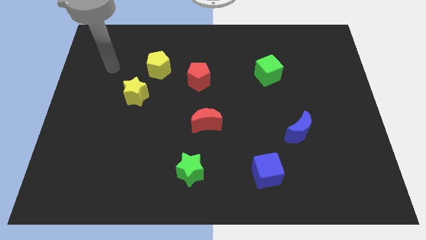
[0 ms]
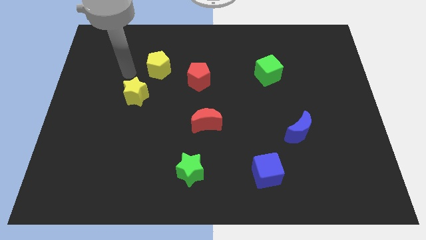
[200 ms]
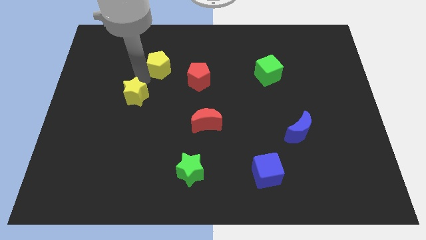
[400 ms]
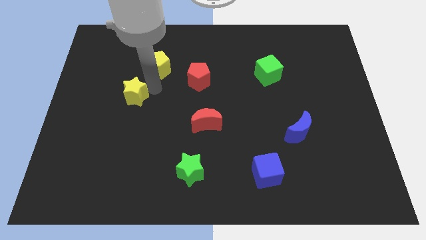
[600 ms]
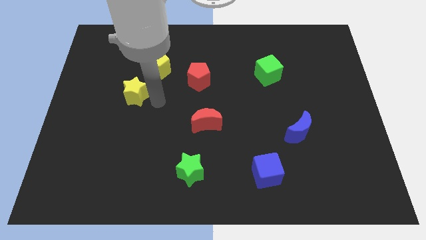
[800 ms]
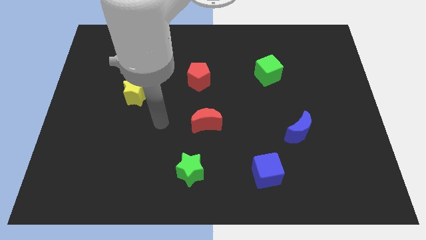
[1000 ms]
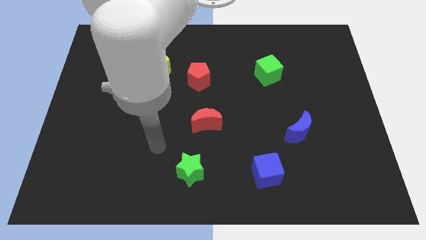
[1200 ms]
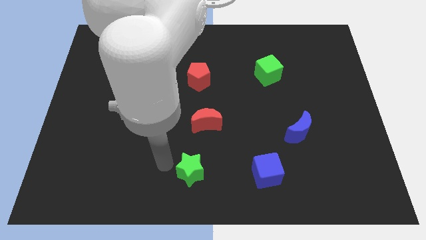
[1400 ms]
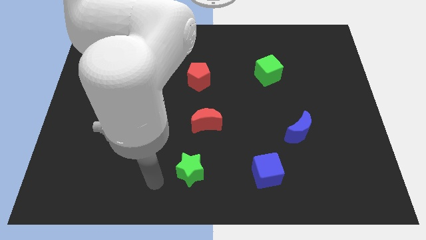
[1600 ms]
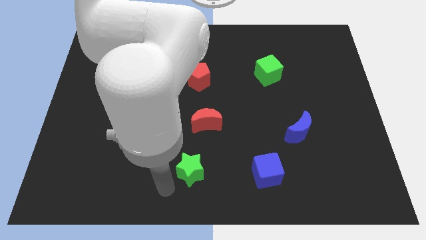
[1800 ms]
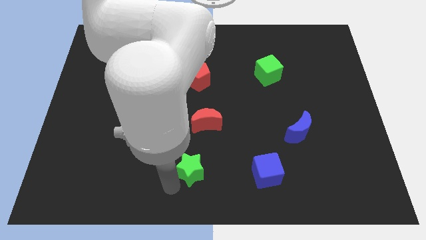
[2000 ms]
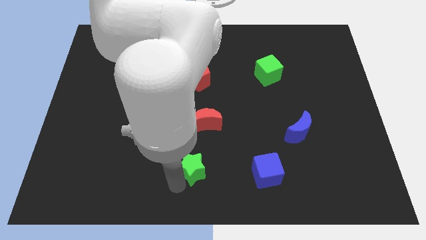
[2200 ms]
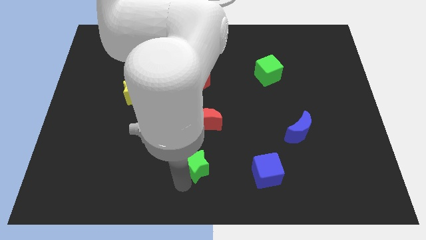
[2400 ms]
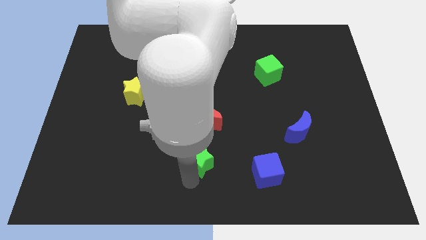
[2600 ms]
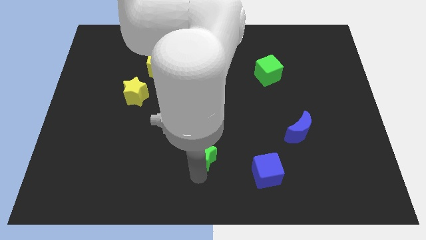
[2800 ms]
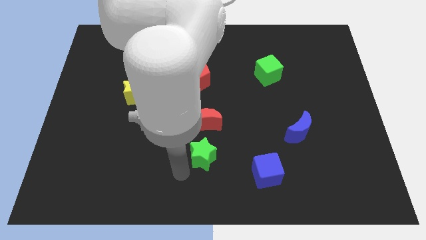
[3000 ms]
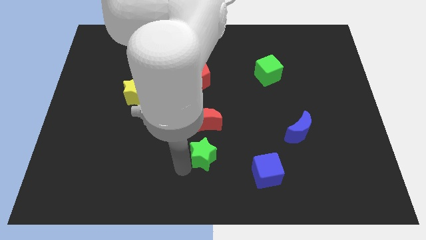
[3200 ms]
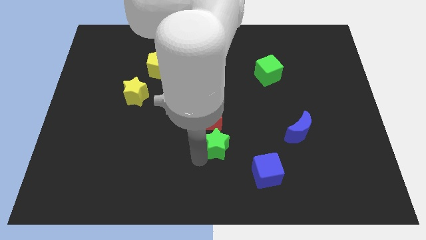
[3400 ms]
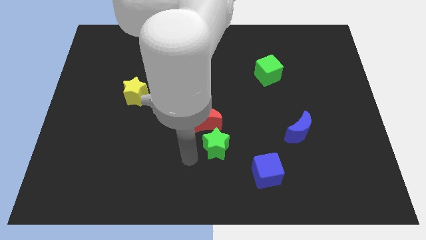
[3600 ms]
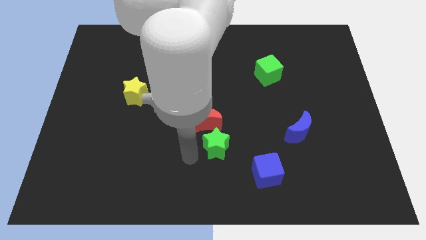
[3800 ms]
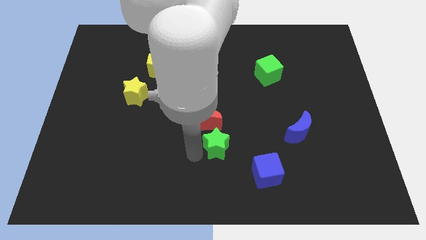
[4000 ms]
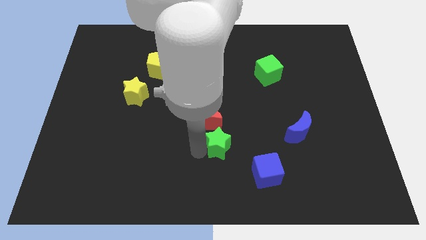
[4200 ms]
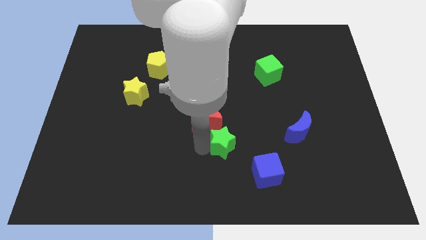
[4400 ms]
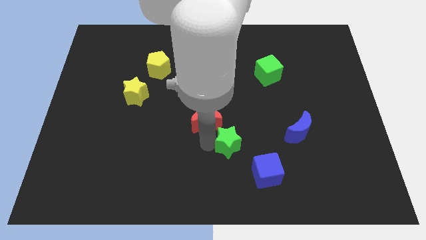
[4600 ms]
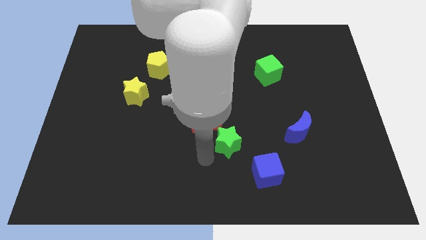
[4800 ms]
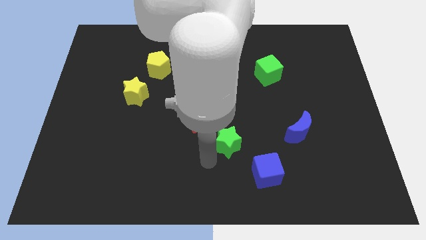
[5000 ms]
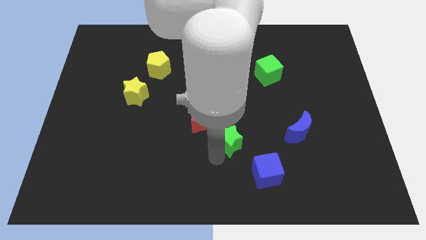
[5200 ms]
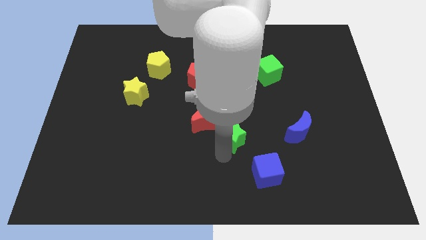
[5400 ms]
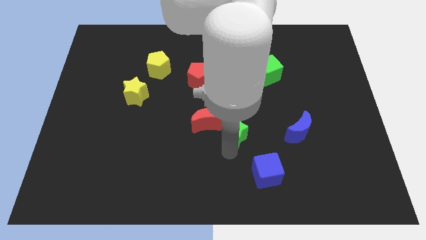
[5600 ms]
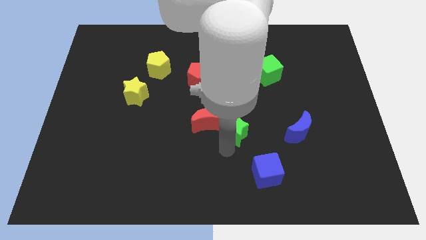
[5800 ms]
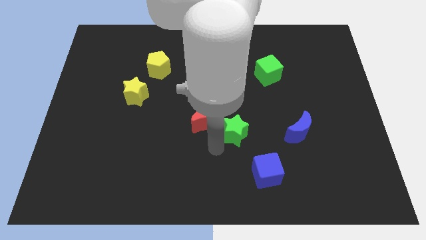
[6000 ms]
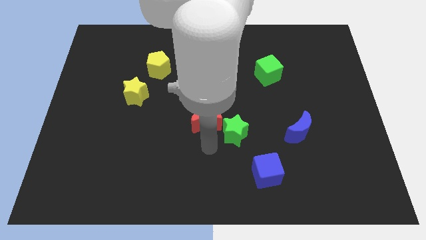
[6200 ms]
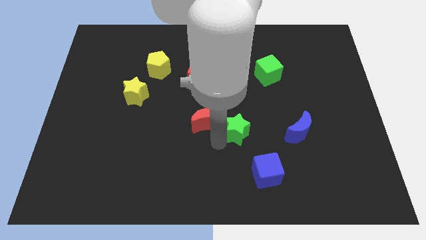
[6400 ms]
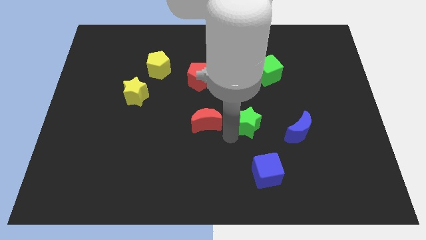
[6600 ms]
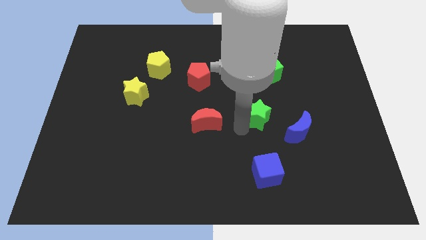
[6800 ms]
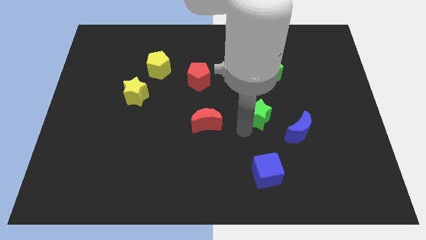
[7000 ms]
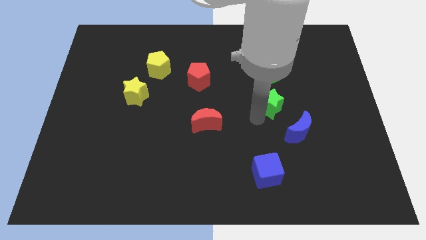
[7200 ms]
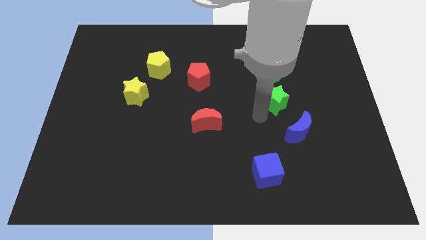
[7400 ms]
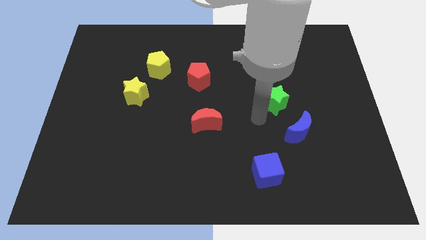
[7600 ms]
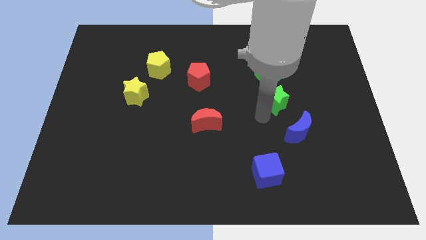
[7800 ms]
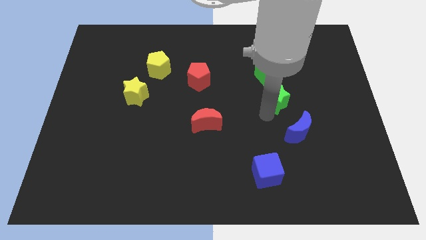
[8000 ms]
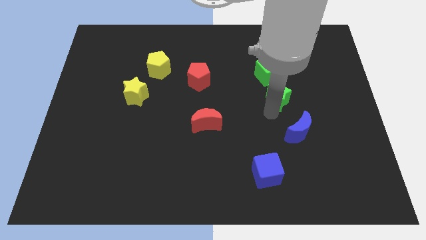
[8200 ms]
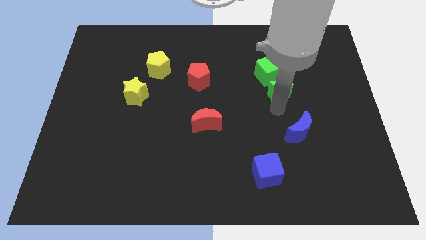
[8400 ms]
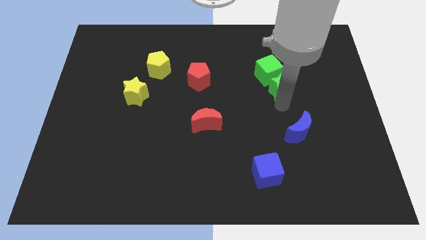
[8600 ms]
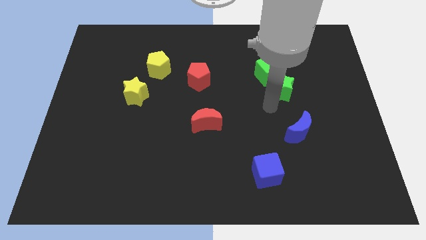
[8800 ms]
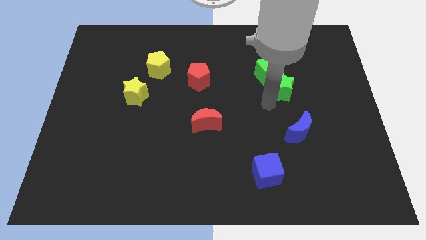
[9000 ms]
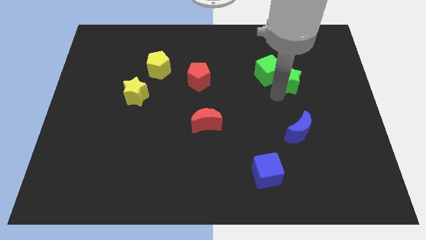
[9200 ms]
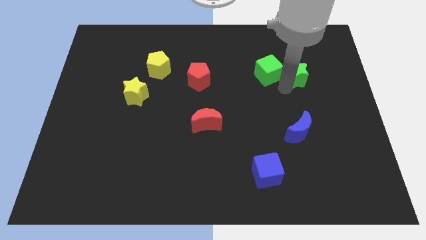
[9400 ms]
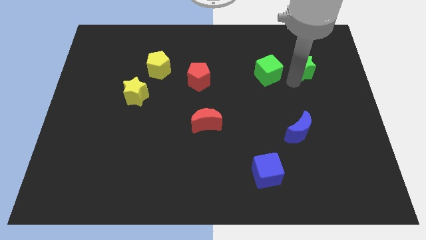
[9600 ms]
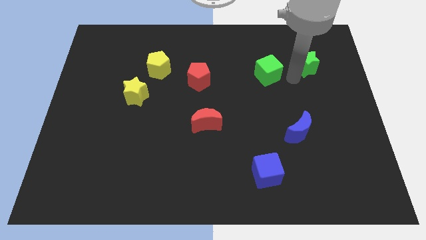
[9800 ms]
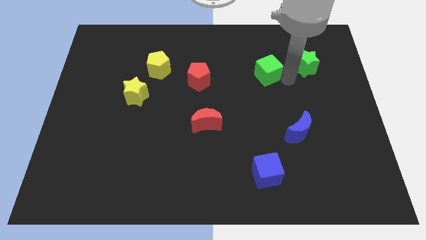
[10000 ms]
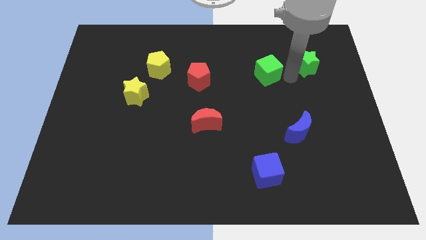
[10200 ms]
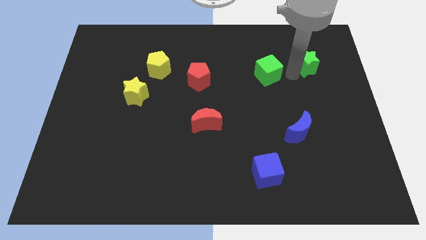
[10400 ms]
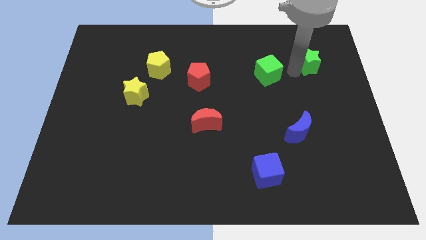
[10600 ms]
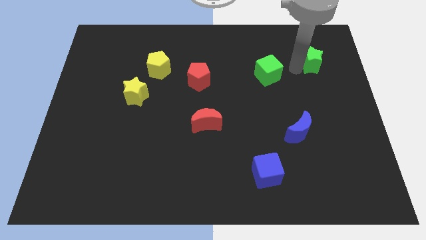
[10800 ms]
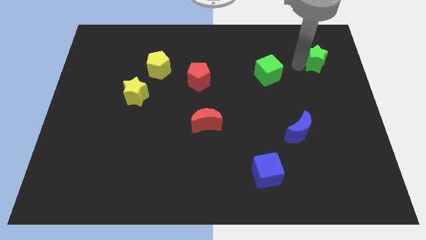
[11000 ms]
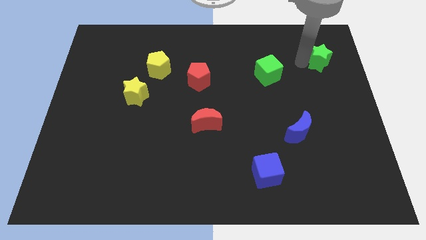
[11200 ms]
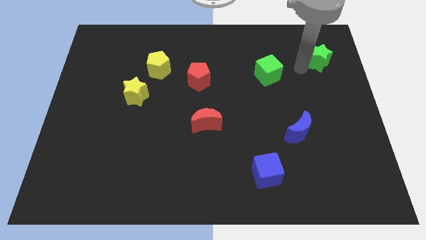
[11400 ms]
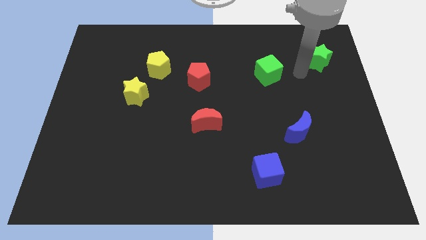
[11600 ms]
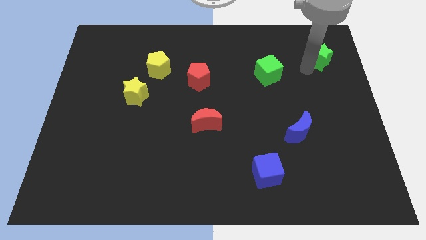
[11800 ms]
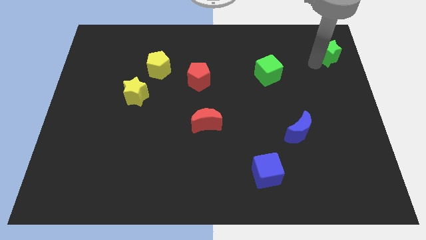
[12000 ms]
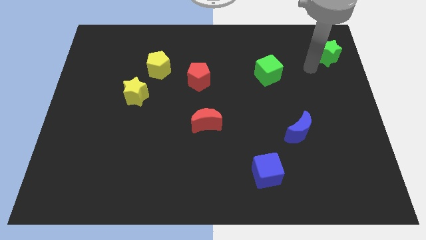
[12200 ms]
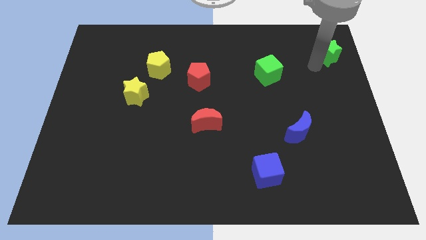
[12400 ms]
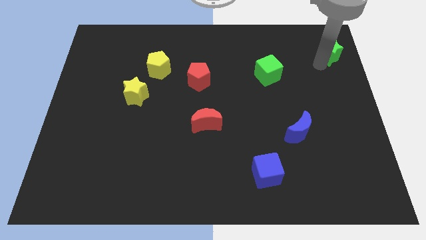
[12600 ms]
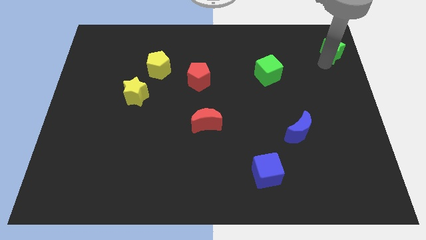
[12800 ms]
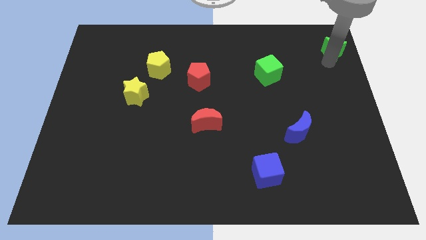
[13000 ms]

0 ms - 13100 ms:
move the green star to the top right of the board

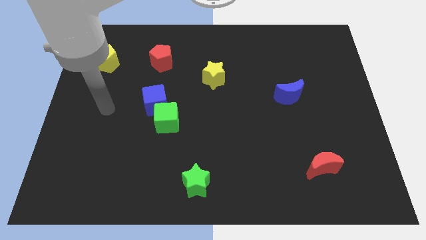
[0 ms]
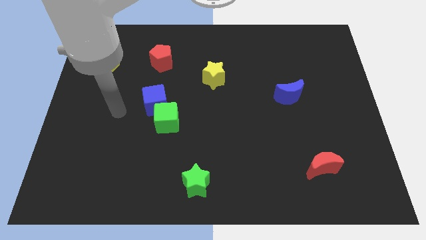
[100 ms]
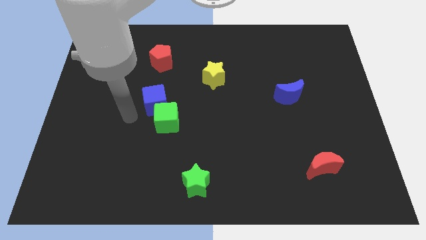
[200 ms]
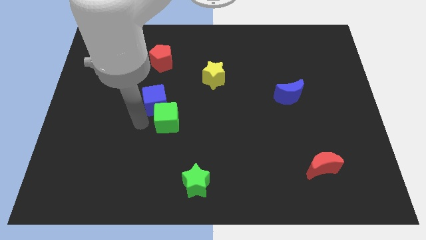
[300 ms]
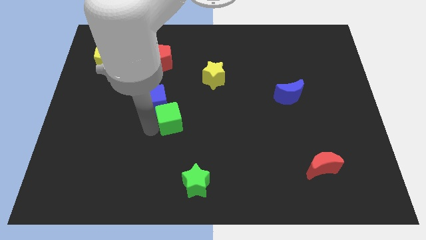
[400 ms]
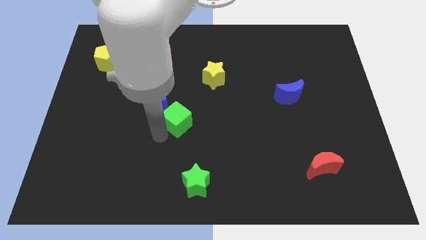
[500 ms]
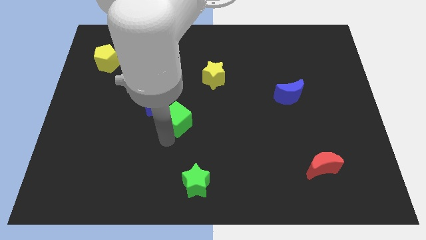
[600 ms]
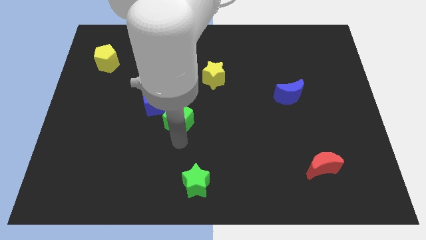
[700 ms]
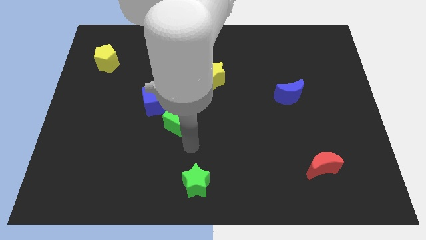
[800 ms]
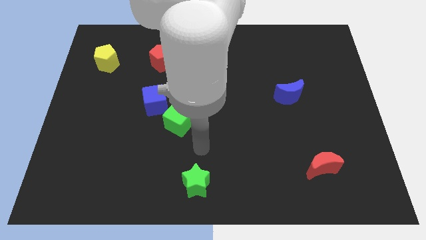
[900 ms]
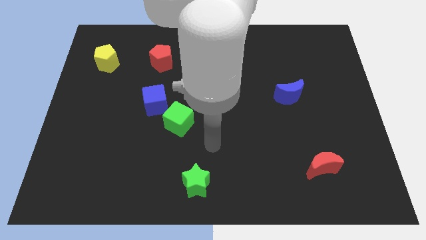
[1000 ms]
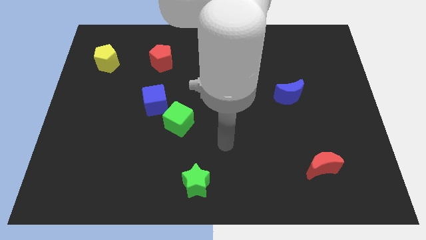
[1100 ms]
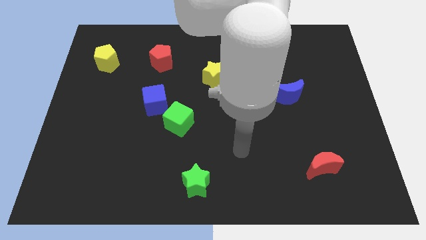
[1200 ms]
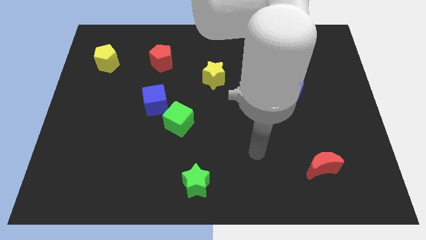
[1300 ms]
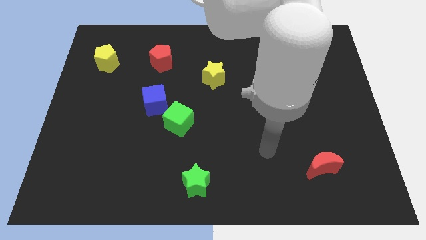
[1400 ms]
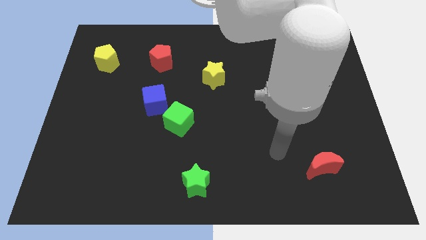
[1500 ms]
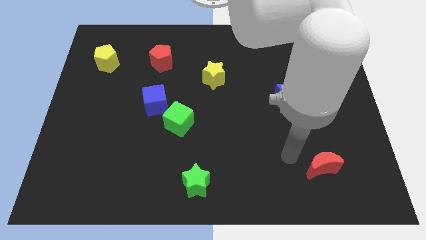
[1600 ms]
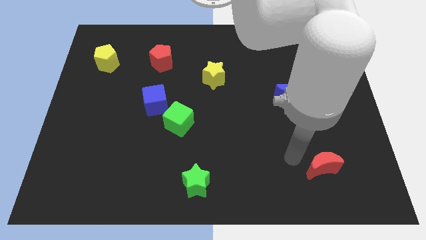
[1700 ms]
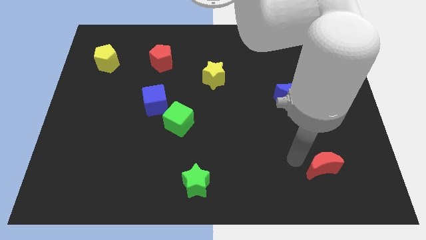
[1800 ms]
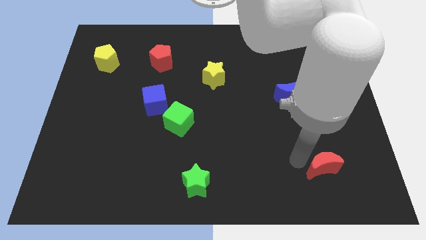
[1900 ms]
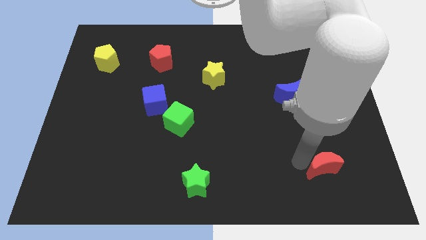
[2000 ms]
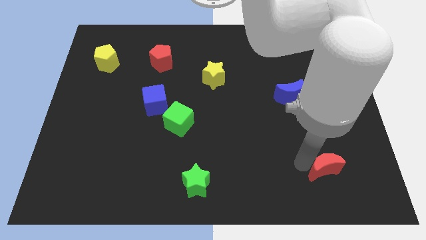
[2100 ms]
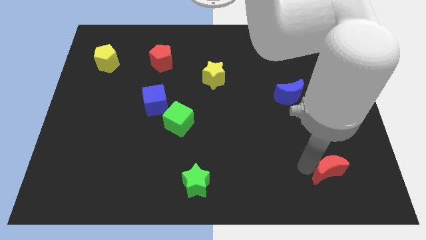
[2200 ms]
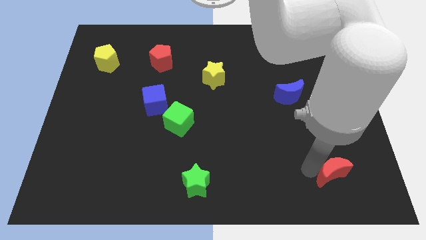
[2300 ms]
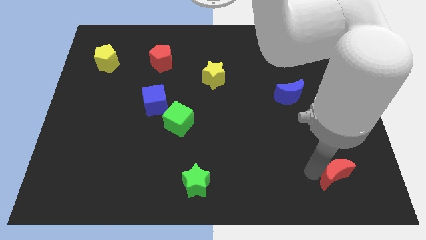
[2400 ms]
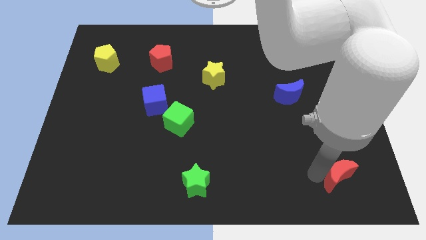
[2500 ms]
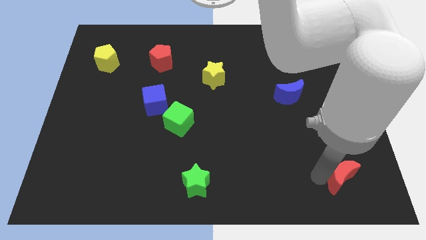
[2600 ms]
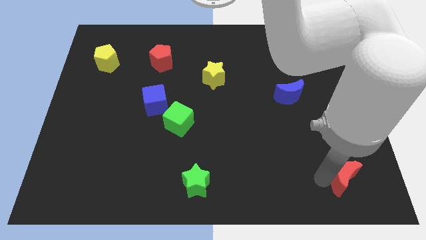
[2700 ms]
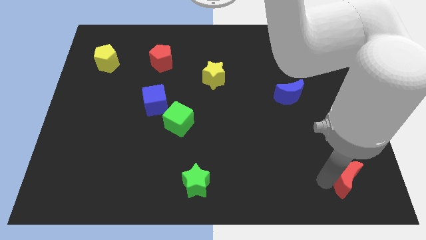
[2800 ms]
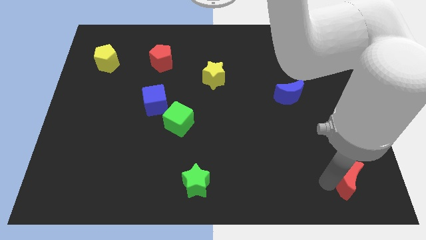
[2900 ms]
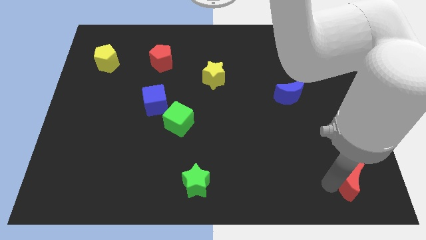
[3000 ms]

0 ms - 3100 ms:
move the red moon to the bottom right of the board
